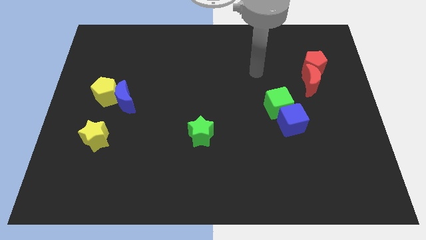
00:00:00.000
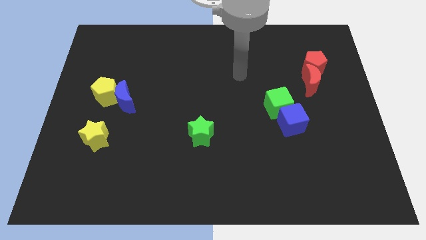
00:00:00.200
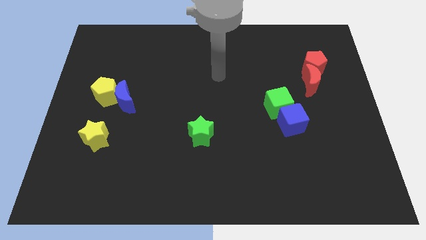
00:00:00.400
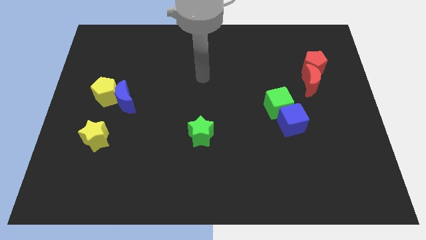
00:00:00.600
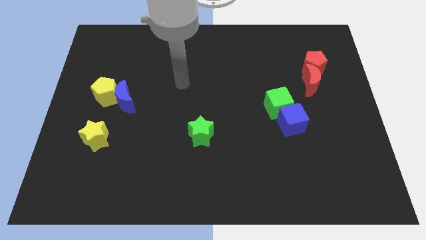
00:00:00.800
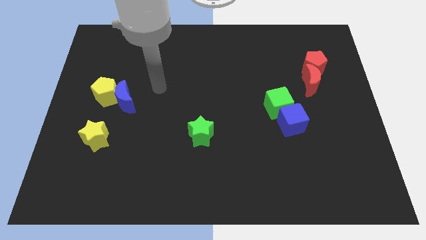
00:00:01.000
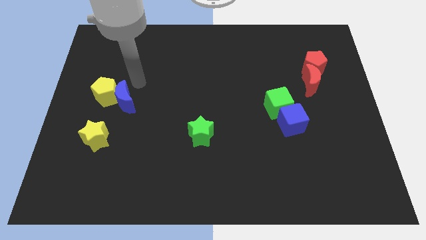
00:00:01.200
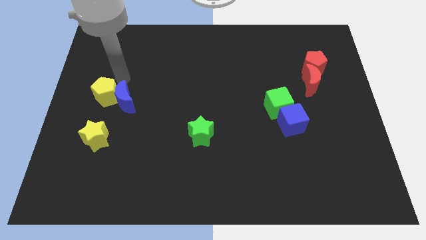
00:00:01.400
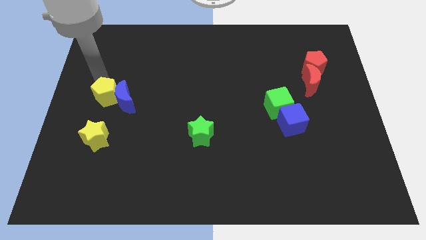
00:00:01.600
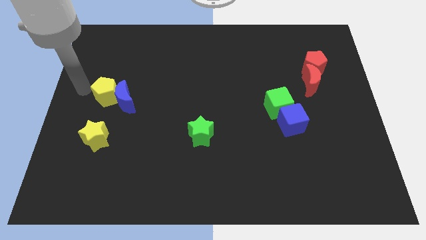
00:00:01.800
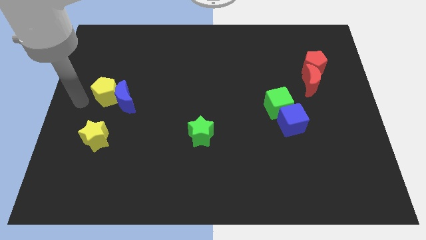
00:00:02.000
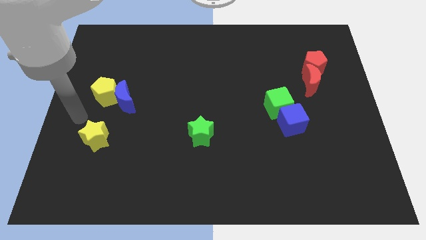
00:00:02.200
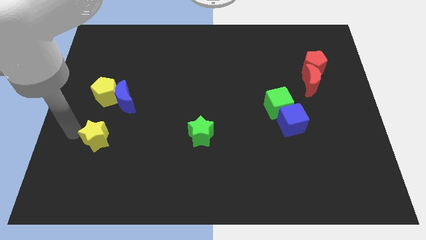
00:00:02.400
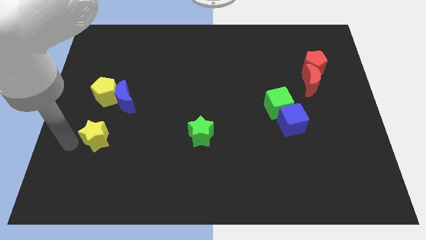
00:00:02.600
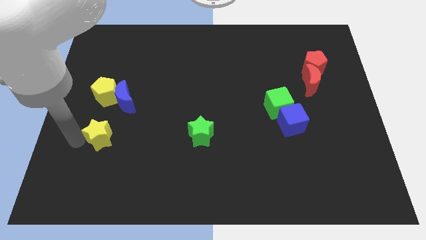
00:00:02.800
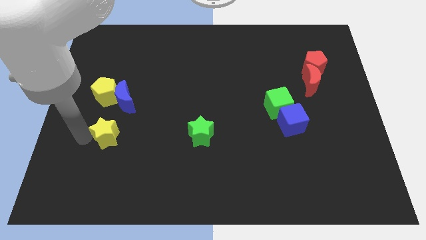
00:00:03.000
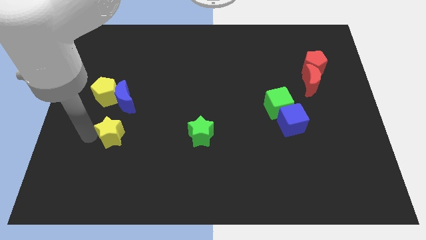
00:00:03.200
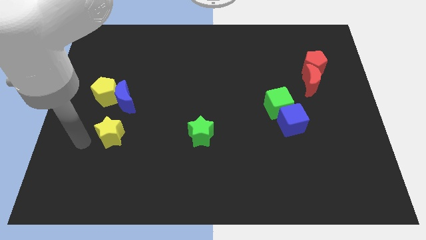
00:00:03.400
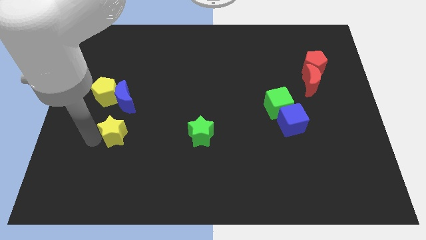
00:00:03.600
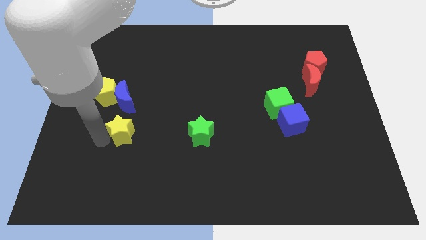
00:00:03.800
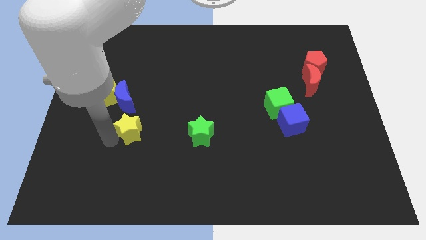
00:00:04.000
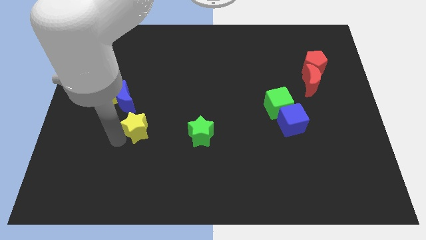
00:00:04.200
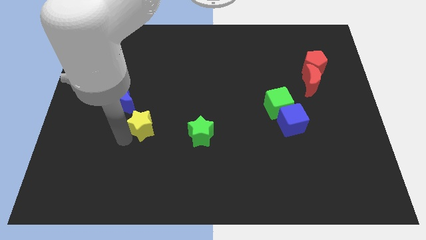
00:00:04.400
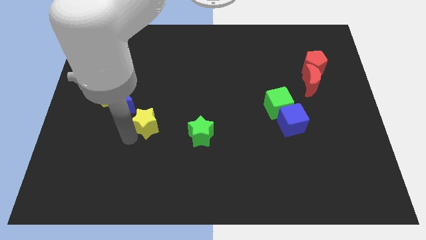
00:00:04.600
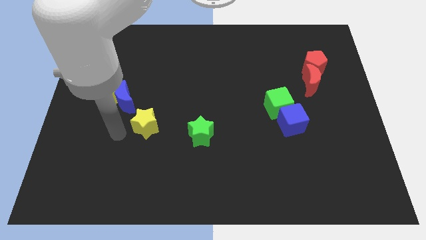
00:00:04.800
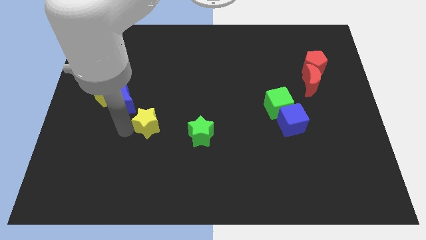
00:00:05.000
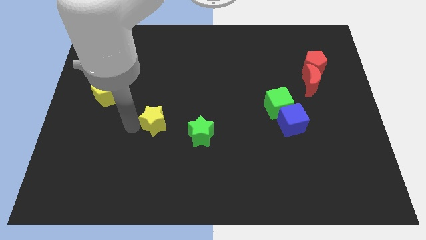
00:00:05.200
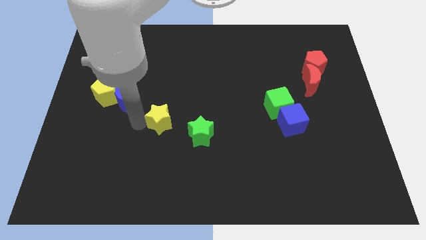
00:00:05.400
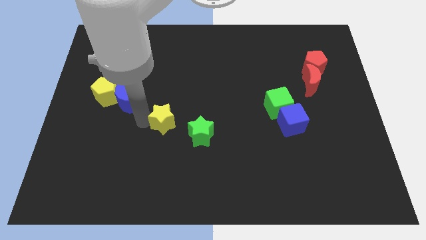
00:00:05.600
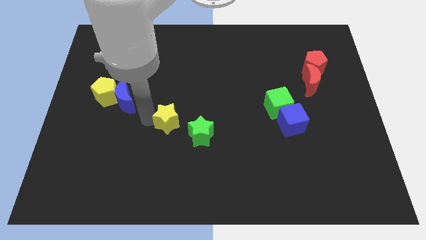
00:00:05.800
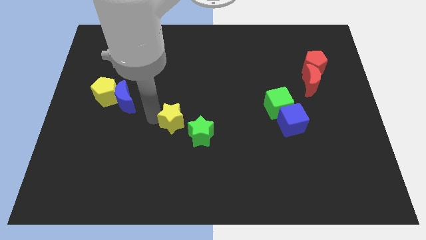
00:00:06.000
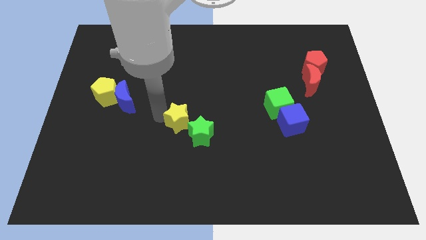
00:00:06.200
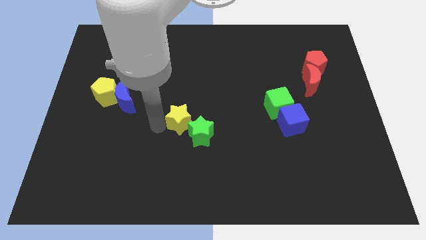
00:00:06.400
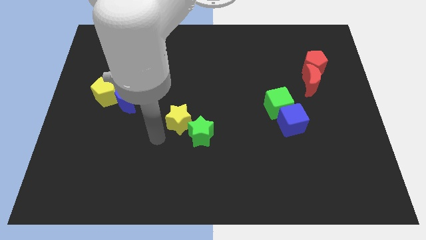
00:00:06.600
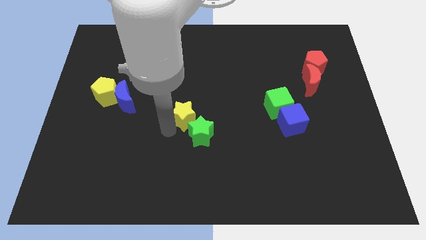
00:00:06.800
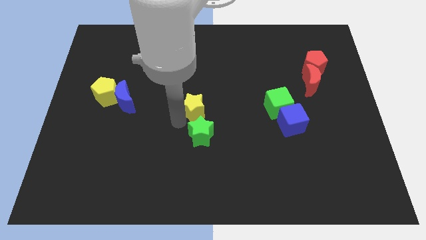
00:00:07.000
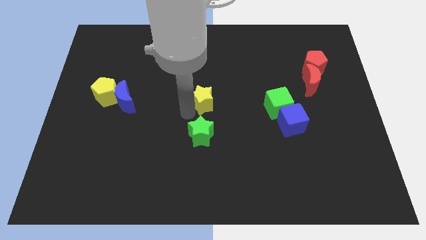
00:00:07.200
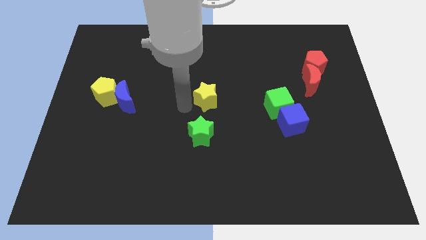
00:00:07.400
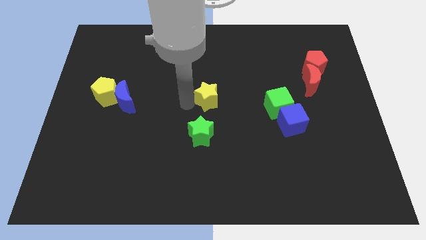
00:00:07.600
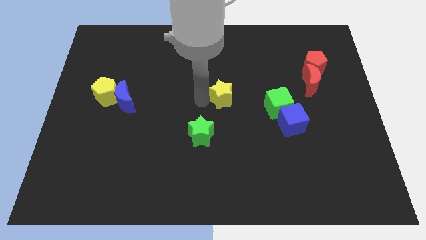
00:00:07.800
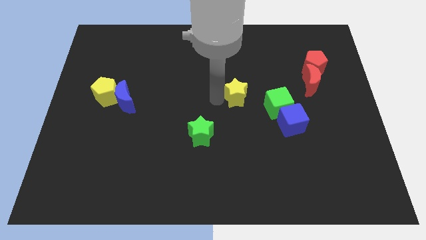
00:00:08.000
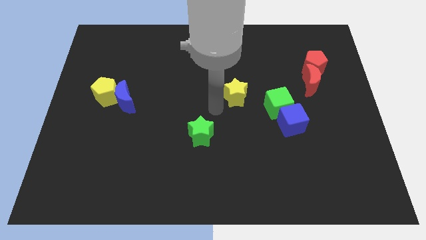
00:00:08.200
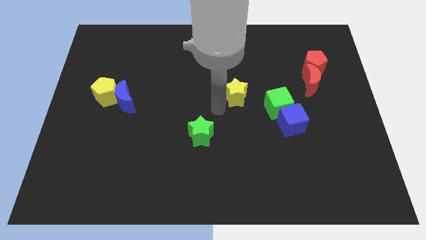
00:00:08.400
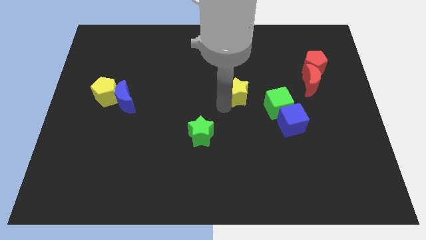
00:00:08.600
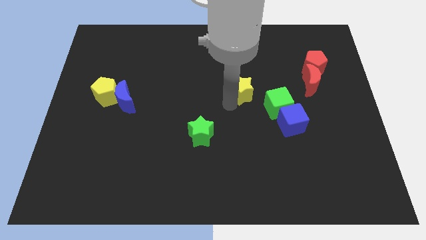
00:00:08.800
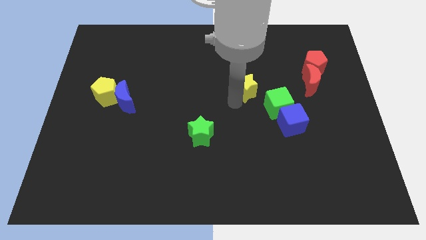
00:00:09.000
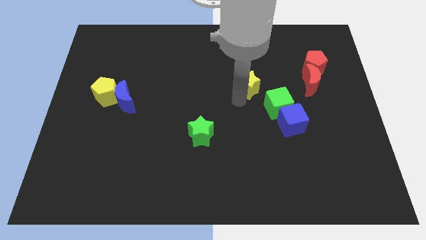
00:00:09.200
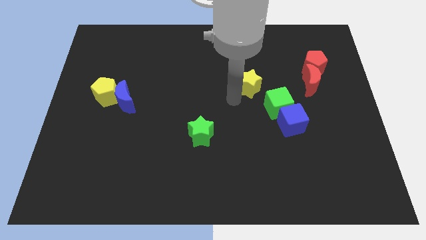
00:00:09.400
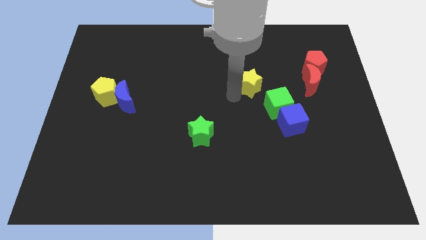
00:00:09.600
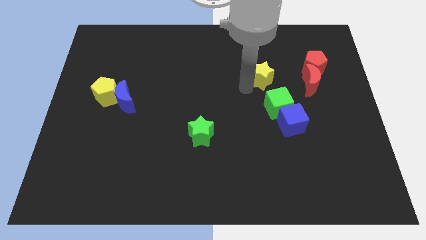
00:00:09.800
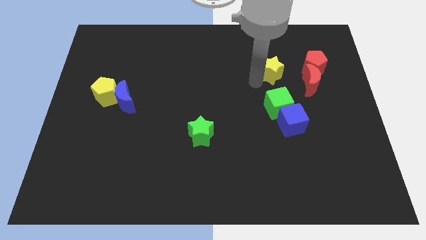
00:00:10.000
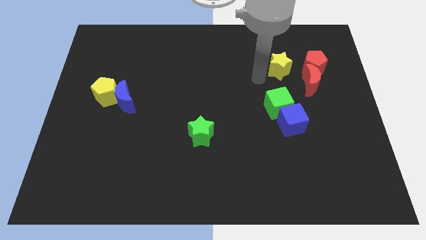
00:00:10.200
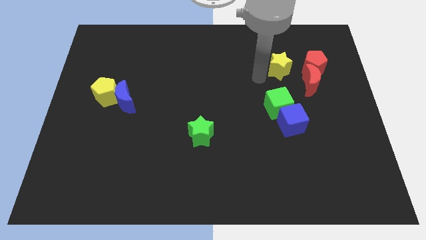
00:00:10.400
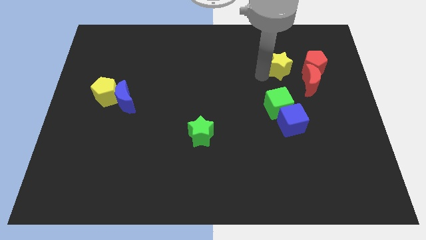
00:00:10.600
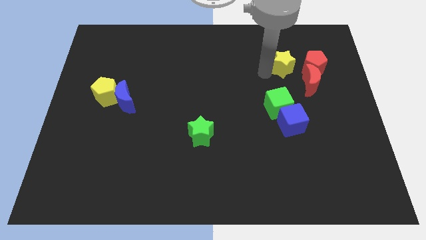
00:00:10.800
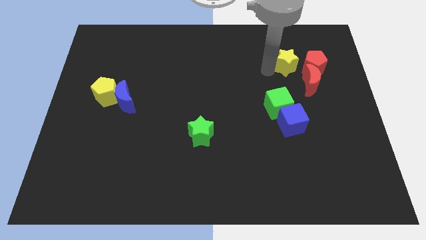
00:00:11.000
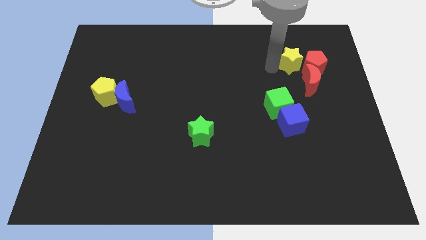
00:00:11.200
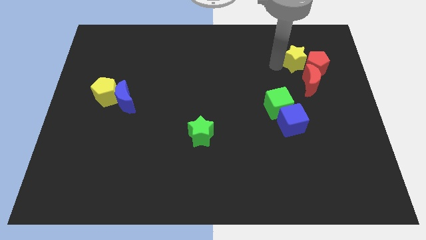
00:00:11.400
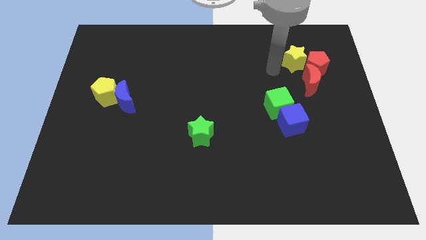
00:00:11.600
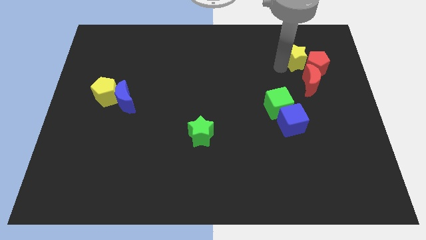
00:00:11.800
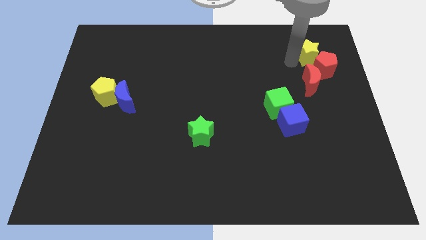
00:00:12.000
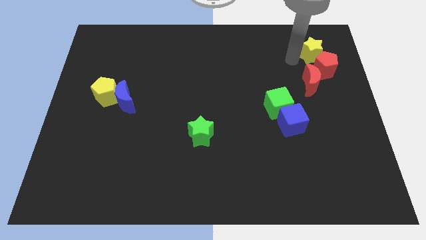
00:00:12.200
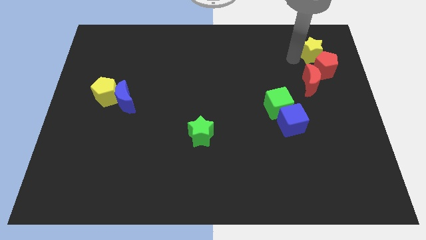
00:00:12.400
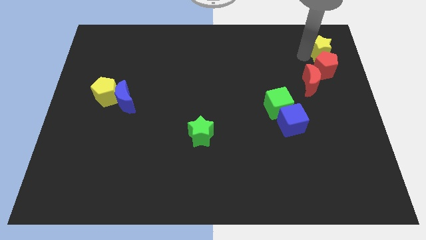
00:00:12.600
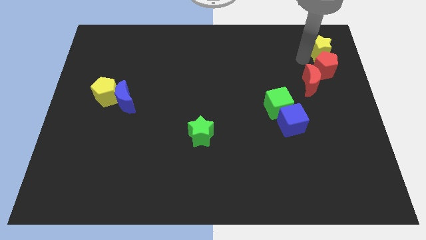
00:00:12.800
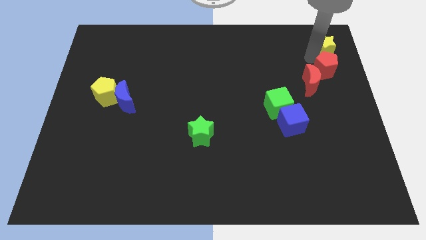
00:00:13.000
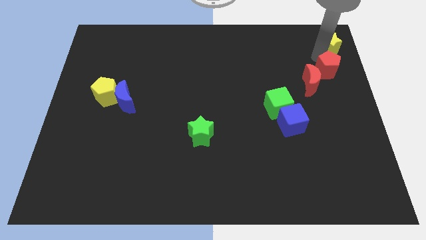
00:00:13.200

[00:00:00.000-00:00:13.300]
put the yellow star to the top right of the board

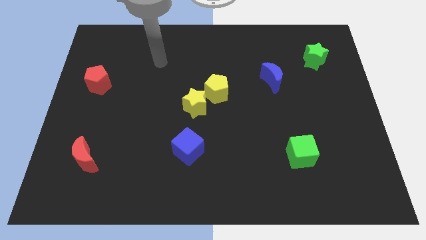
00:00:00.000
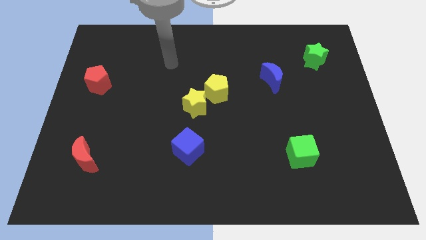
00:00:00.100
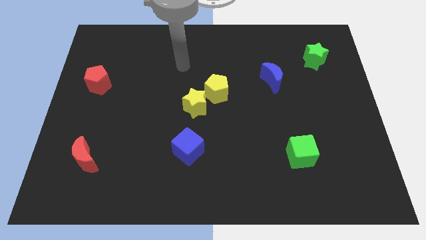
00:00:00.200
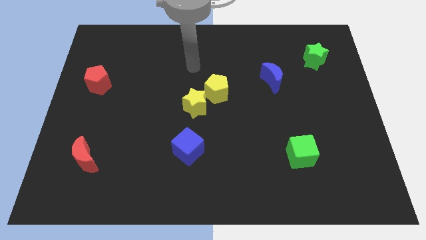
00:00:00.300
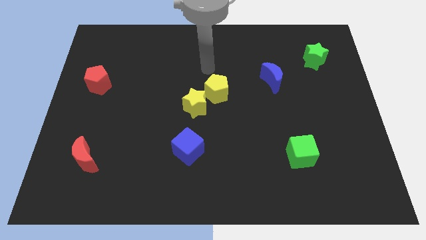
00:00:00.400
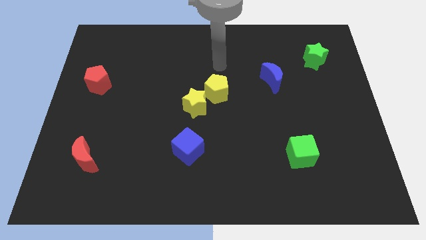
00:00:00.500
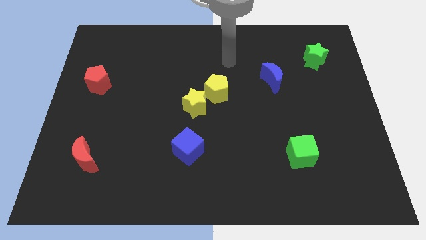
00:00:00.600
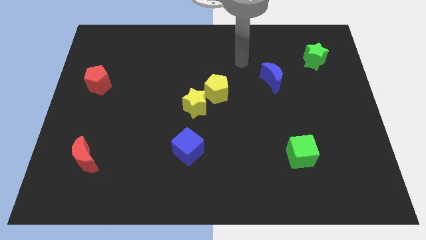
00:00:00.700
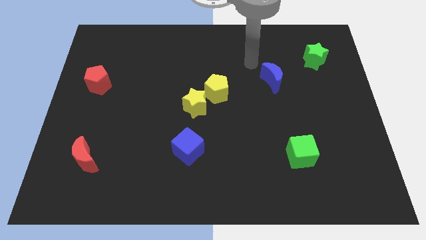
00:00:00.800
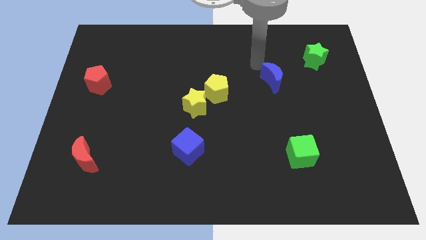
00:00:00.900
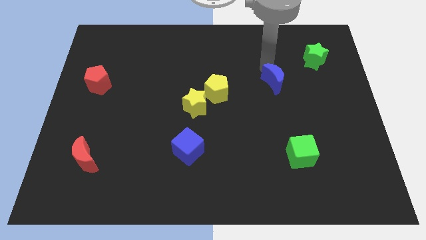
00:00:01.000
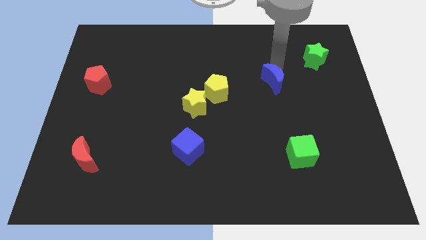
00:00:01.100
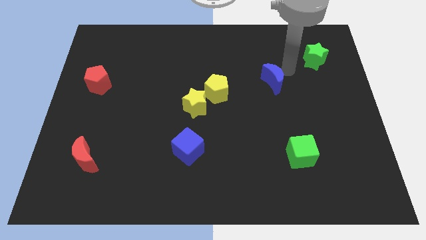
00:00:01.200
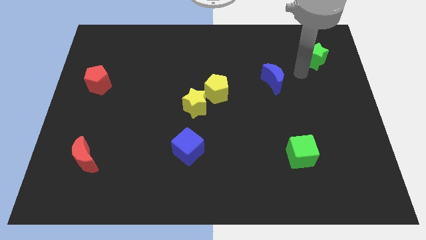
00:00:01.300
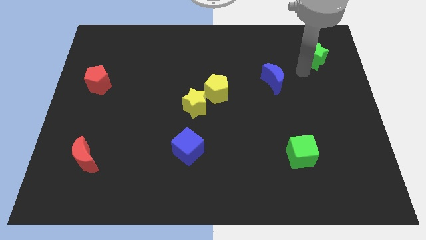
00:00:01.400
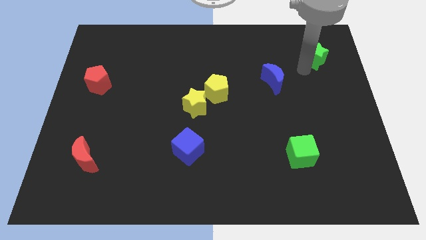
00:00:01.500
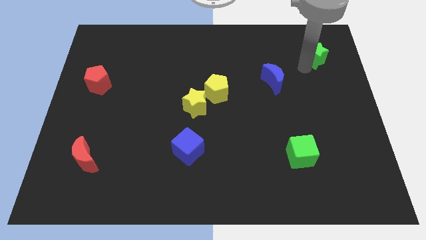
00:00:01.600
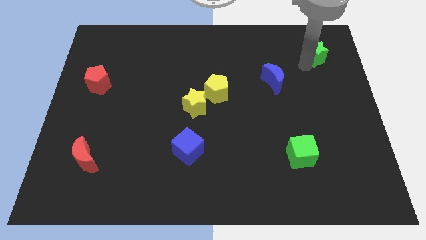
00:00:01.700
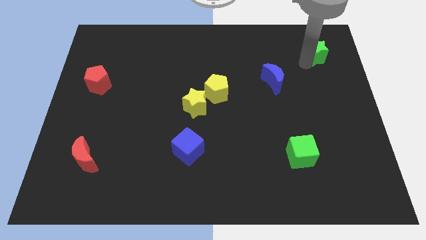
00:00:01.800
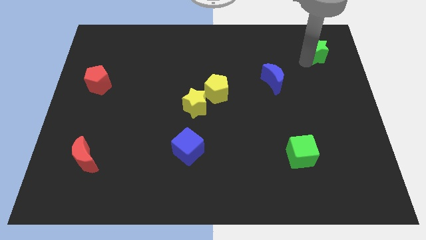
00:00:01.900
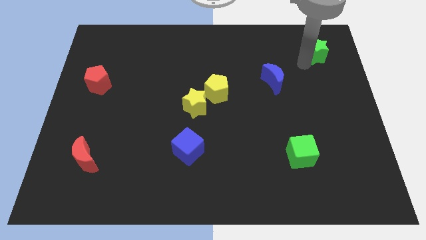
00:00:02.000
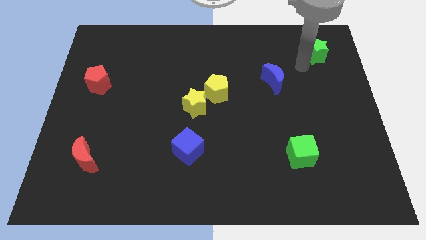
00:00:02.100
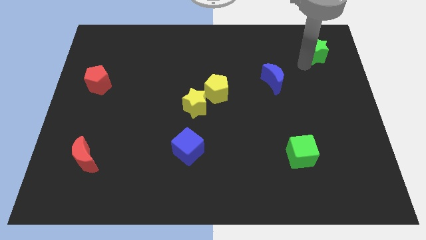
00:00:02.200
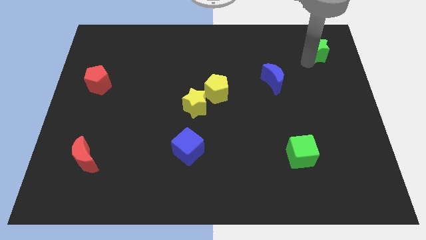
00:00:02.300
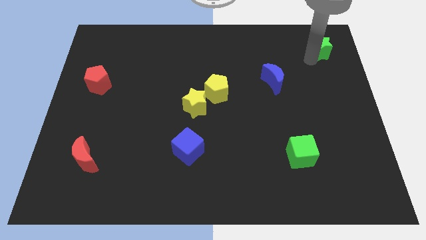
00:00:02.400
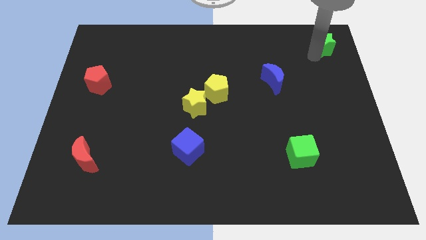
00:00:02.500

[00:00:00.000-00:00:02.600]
move the green star to the upper right corner
